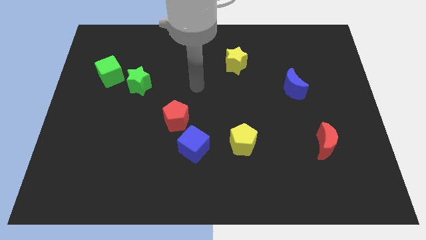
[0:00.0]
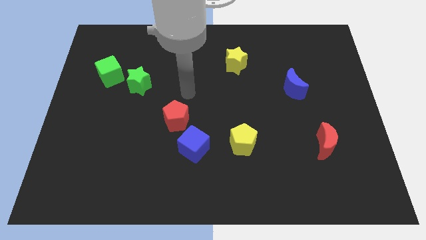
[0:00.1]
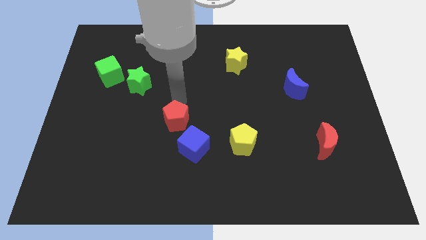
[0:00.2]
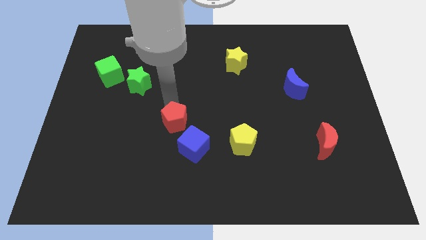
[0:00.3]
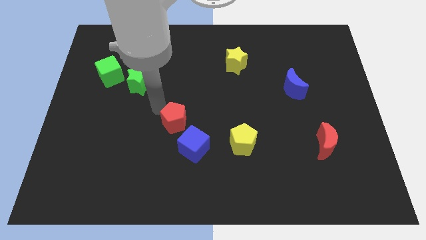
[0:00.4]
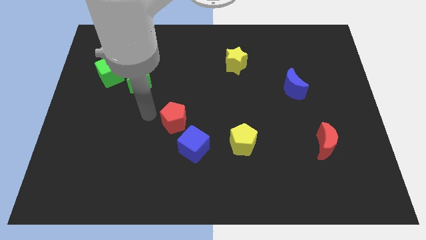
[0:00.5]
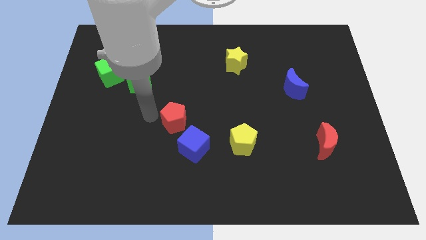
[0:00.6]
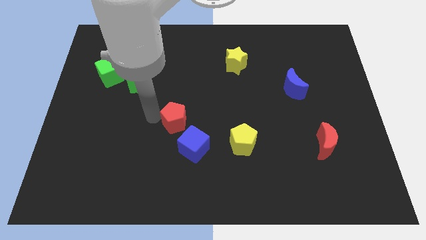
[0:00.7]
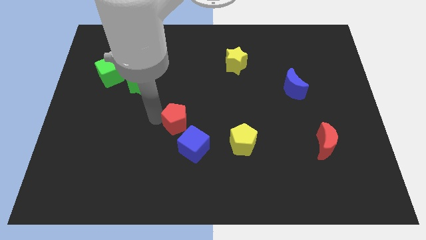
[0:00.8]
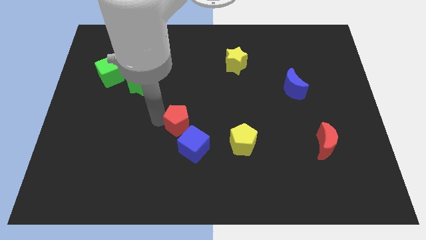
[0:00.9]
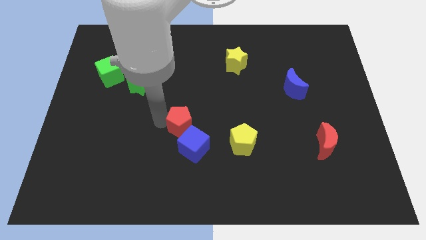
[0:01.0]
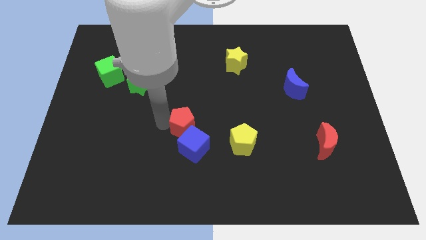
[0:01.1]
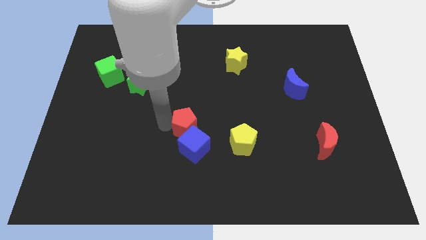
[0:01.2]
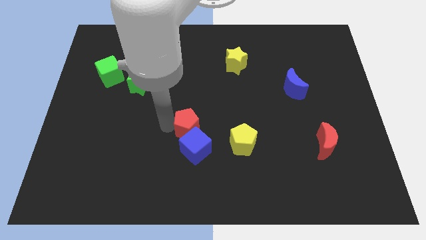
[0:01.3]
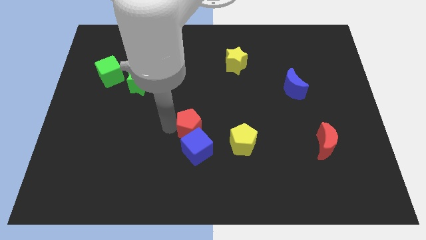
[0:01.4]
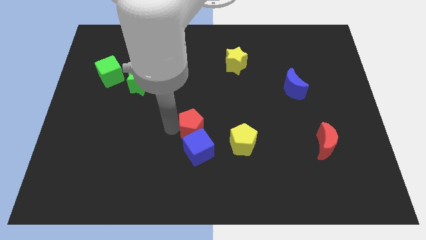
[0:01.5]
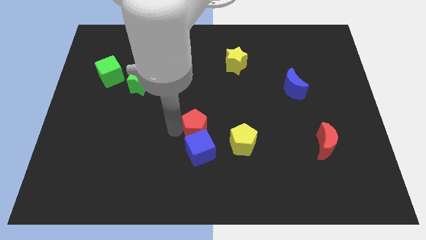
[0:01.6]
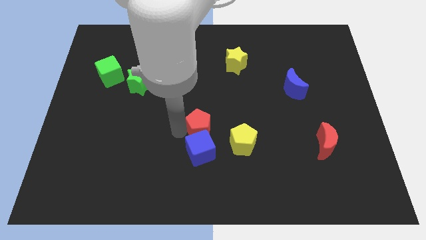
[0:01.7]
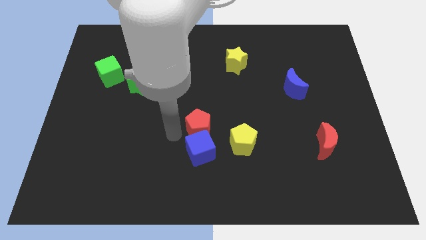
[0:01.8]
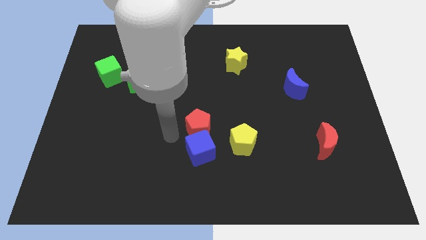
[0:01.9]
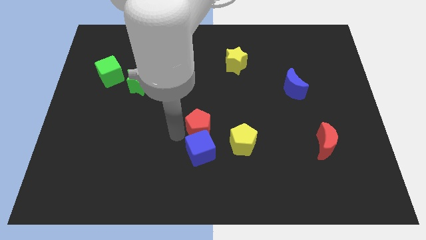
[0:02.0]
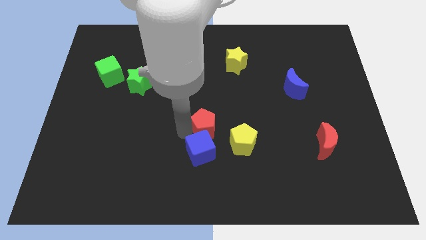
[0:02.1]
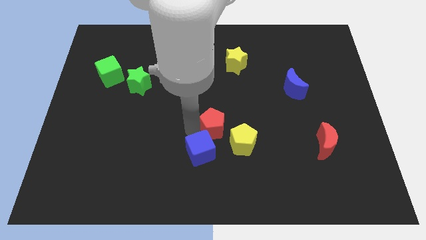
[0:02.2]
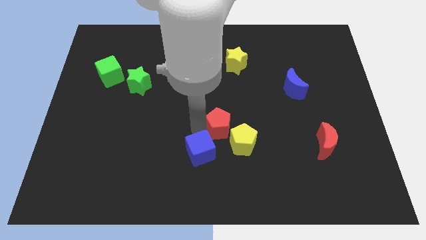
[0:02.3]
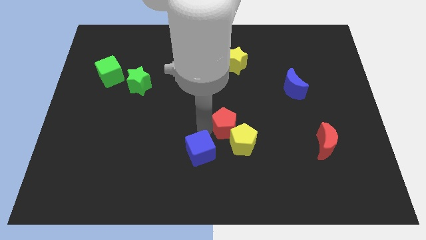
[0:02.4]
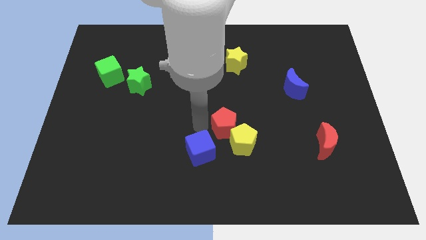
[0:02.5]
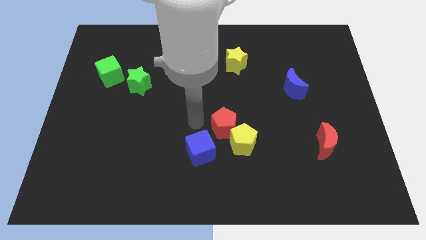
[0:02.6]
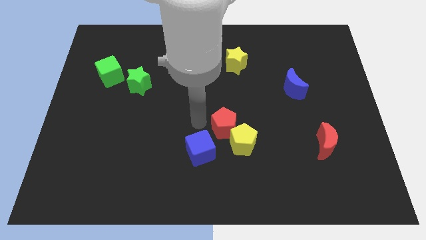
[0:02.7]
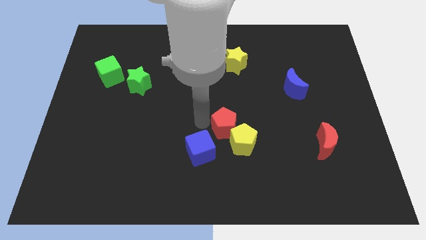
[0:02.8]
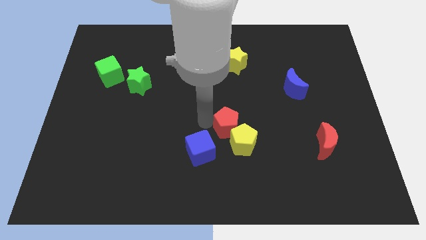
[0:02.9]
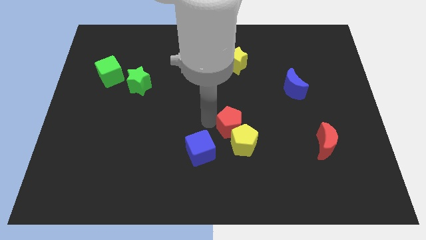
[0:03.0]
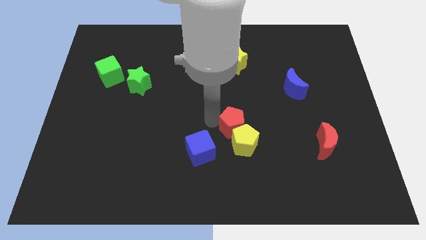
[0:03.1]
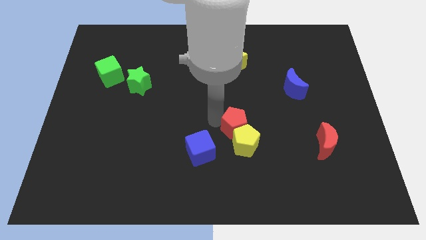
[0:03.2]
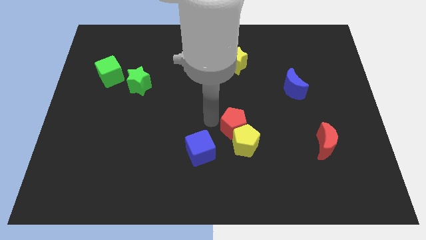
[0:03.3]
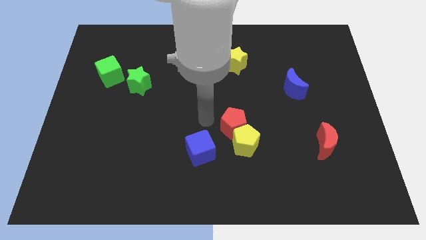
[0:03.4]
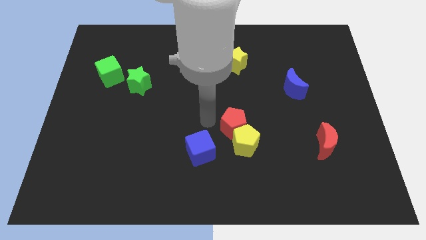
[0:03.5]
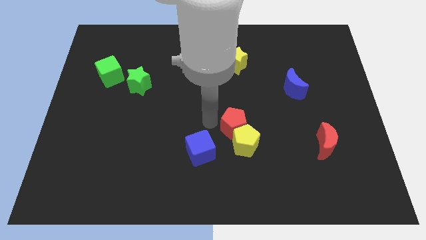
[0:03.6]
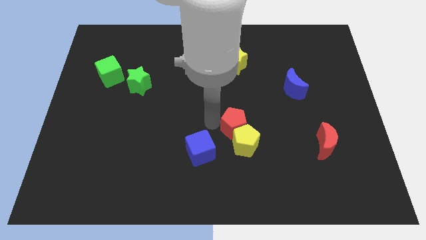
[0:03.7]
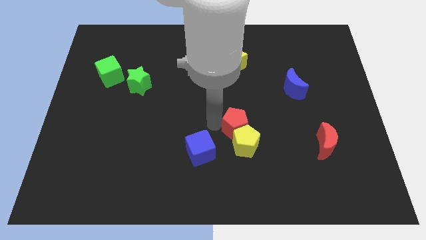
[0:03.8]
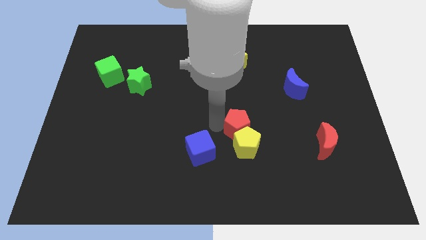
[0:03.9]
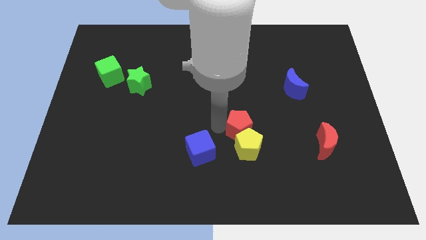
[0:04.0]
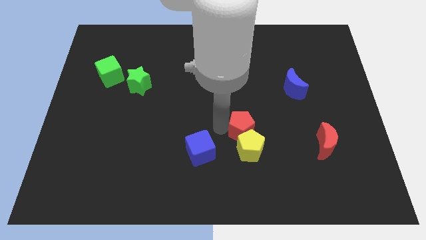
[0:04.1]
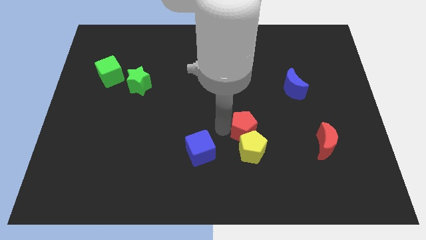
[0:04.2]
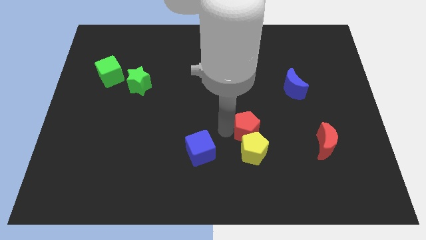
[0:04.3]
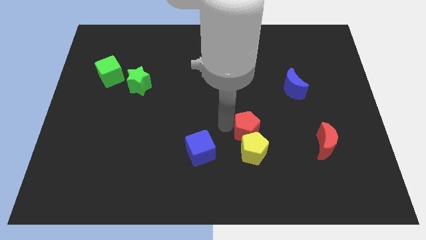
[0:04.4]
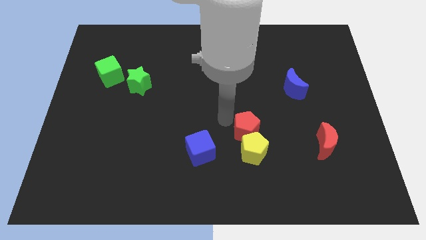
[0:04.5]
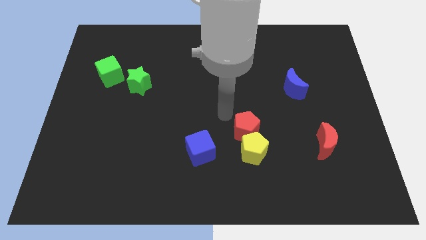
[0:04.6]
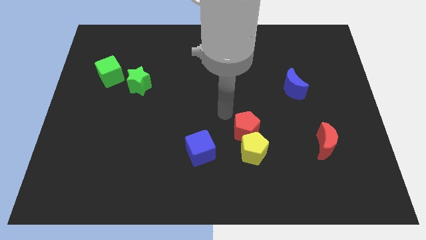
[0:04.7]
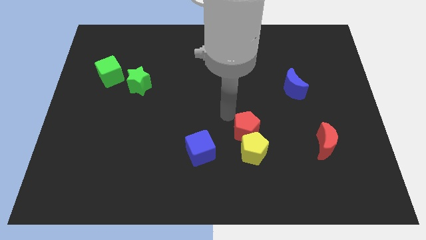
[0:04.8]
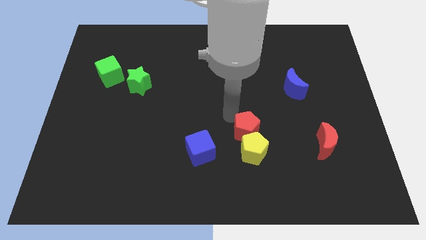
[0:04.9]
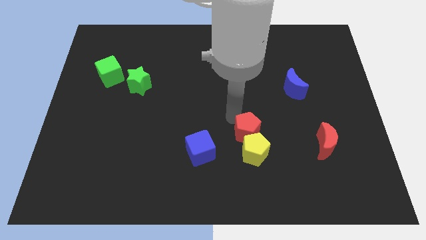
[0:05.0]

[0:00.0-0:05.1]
put the red pentagon just right of the blue cube
